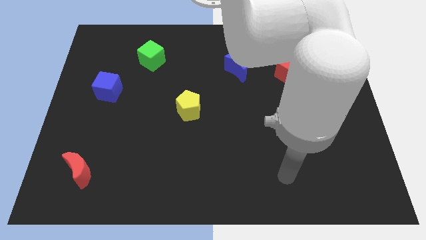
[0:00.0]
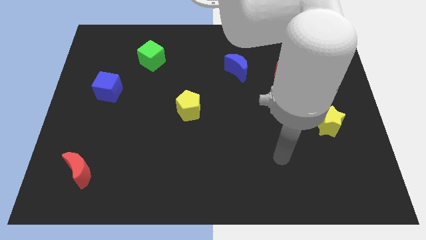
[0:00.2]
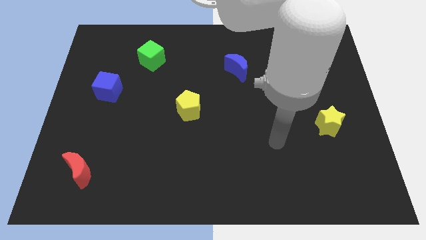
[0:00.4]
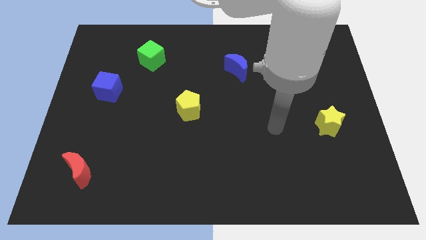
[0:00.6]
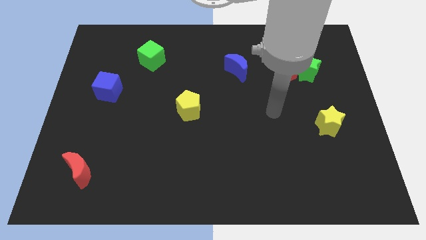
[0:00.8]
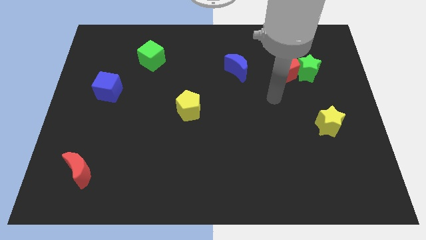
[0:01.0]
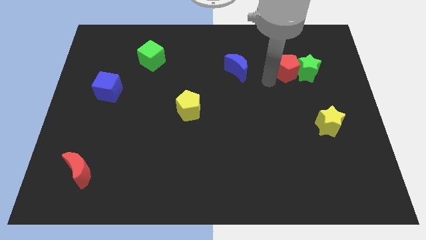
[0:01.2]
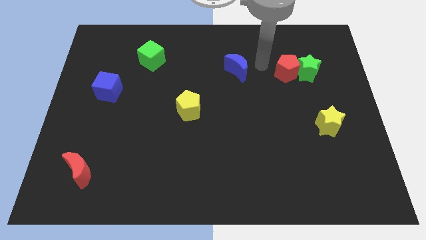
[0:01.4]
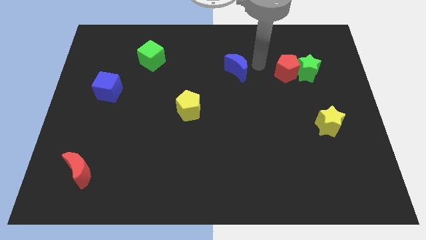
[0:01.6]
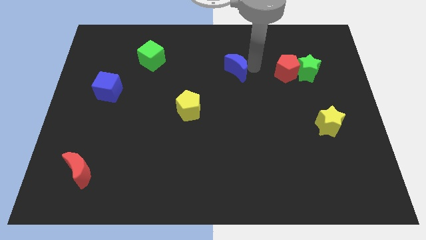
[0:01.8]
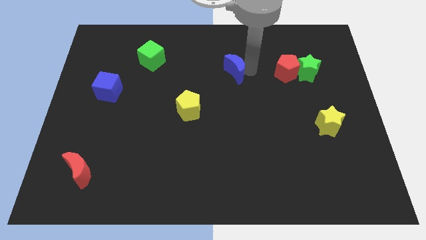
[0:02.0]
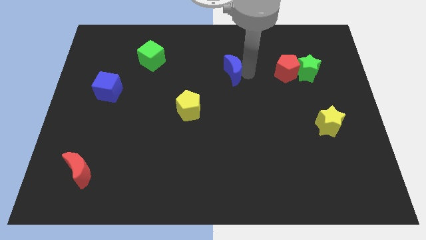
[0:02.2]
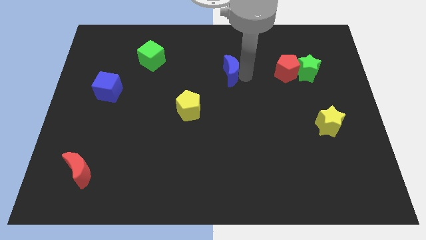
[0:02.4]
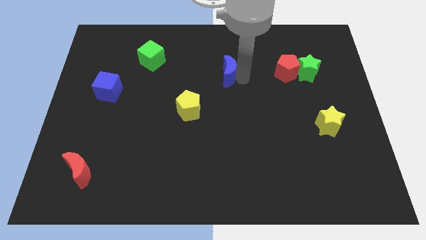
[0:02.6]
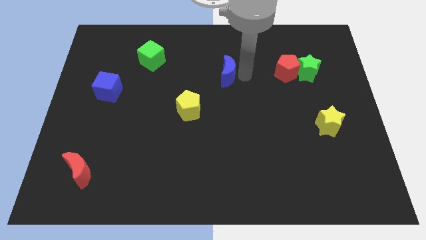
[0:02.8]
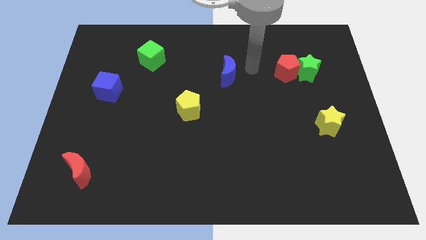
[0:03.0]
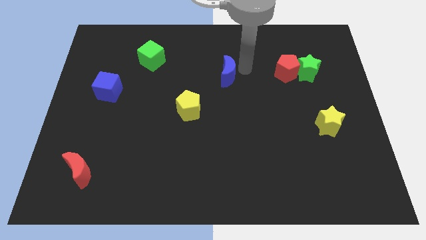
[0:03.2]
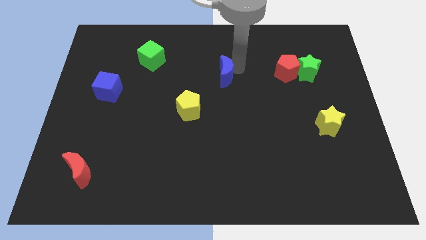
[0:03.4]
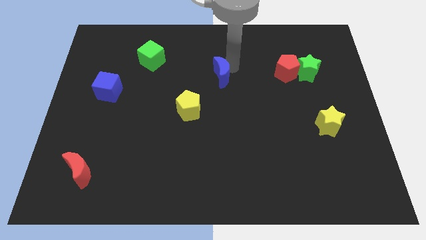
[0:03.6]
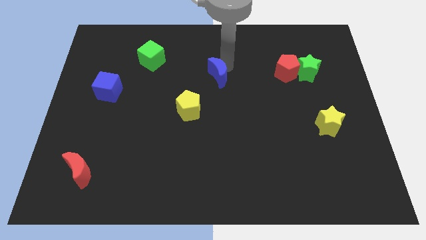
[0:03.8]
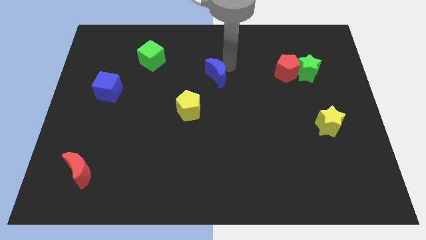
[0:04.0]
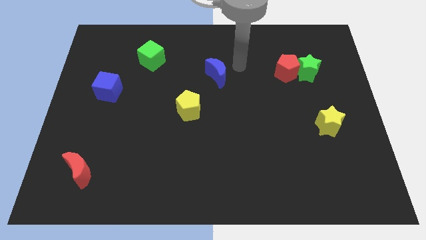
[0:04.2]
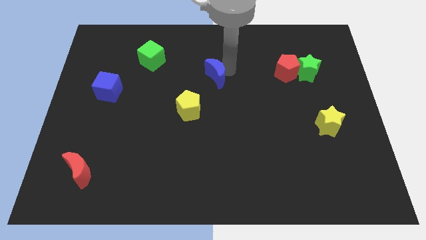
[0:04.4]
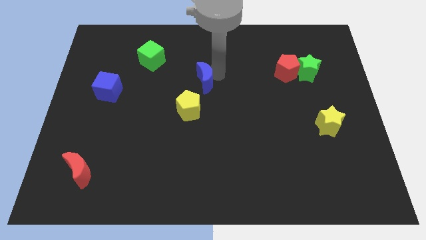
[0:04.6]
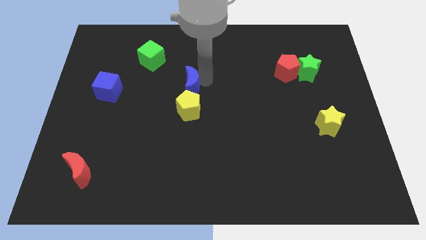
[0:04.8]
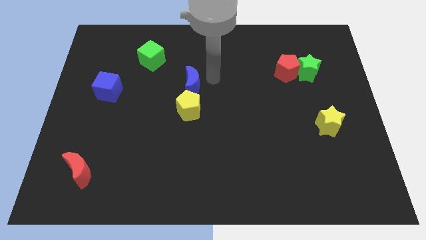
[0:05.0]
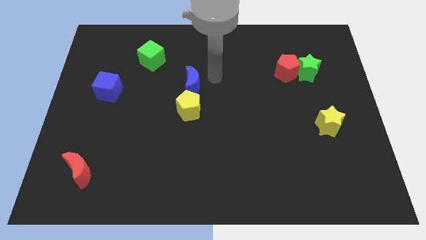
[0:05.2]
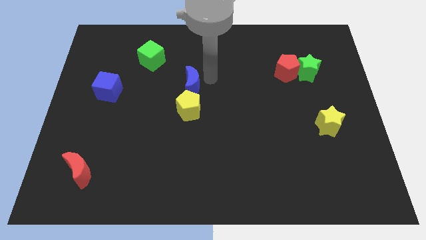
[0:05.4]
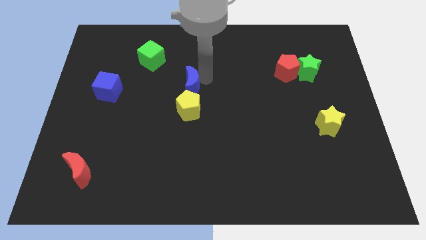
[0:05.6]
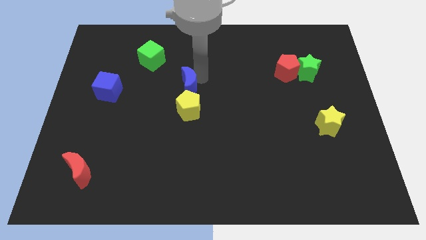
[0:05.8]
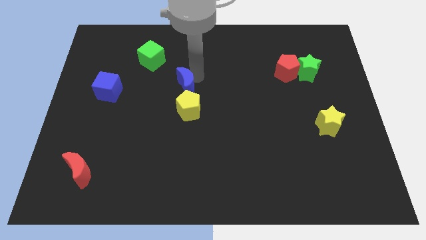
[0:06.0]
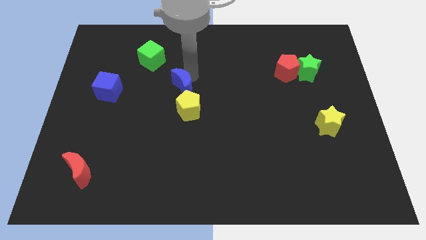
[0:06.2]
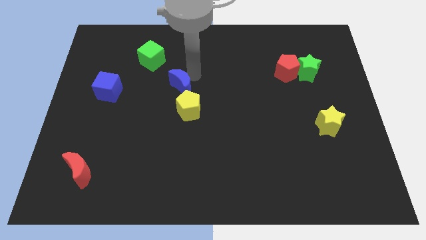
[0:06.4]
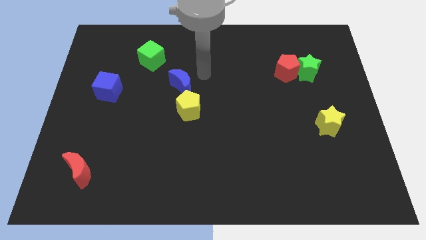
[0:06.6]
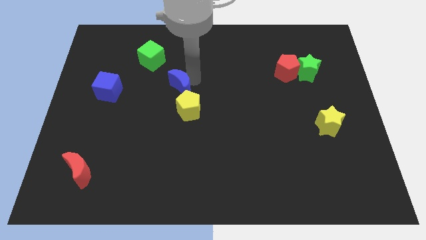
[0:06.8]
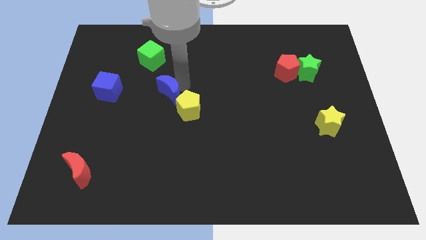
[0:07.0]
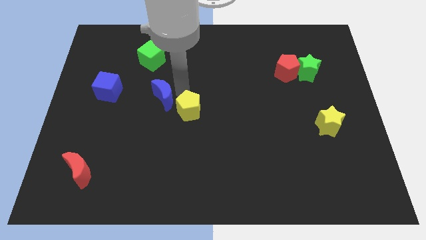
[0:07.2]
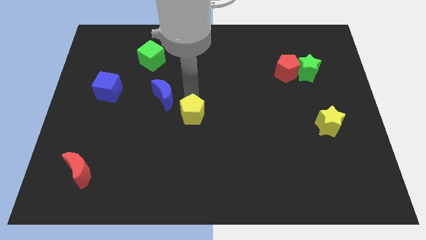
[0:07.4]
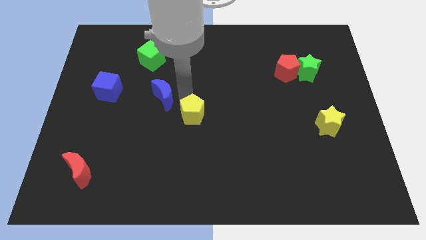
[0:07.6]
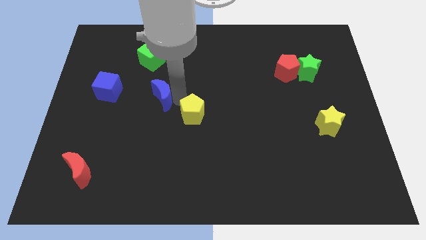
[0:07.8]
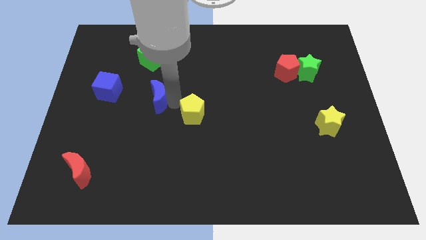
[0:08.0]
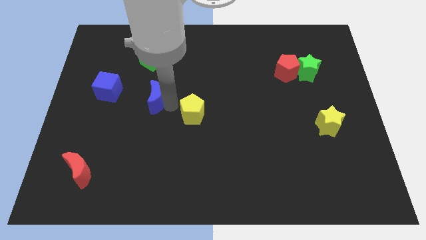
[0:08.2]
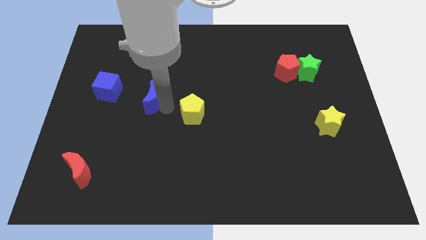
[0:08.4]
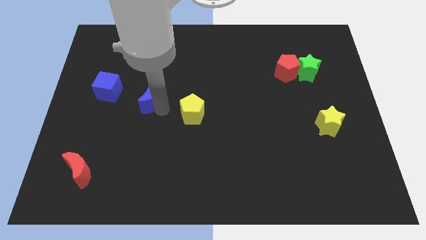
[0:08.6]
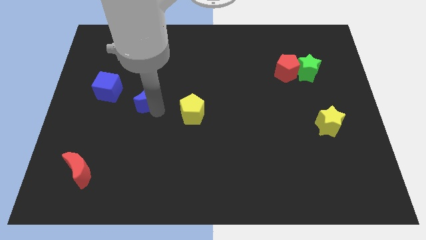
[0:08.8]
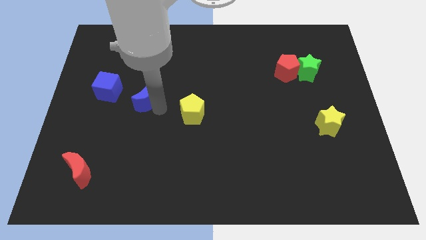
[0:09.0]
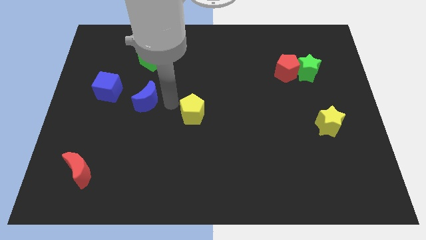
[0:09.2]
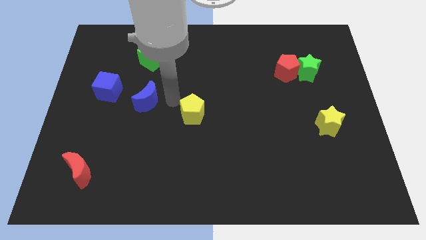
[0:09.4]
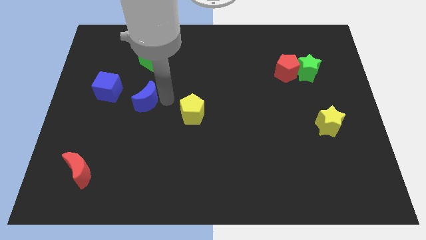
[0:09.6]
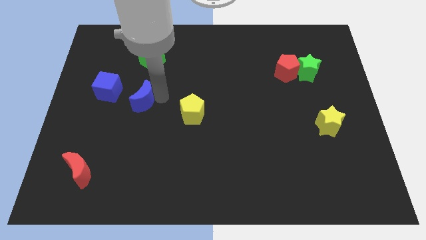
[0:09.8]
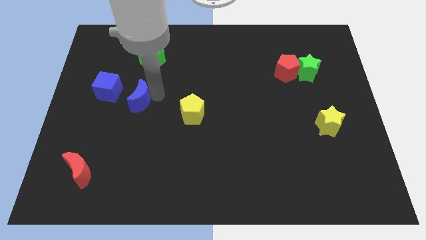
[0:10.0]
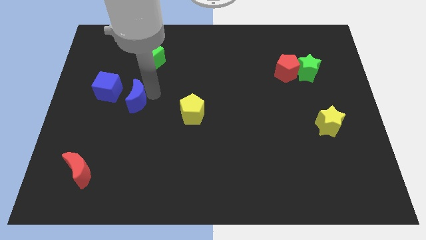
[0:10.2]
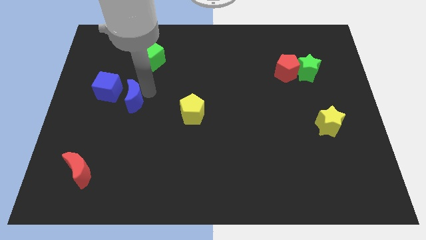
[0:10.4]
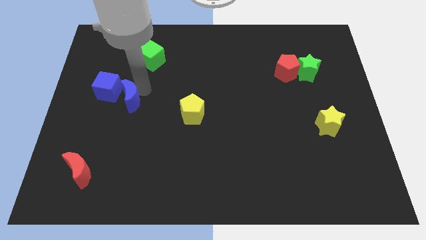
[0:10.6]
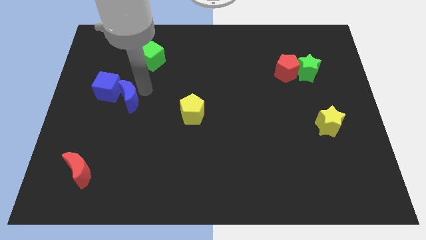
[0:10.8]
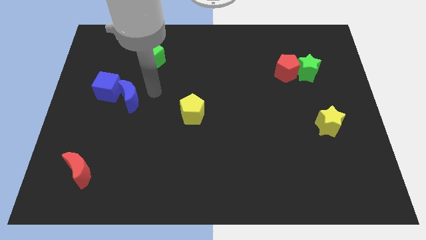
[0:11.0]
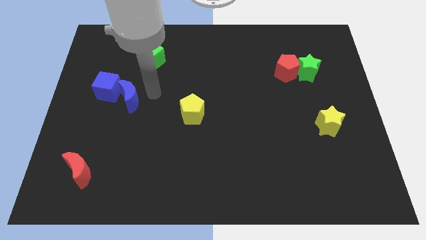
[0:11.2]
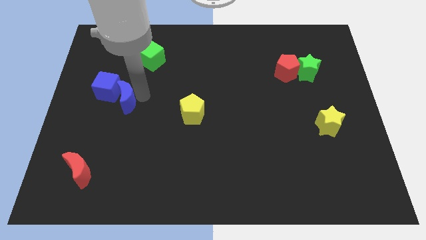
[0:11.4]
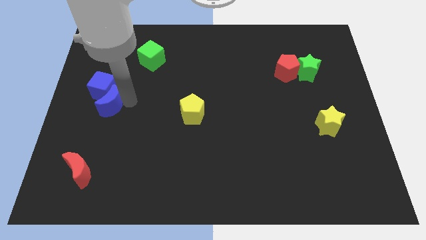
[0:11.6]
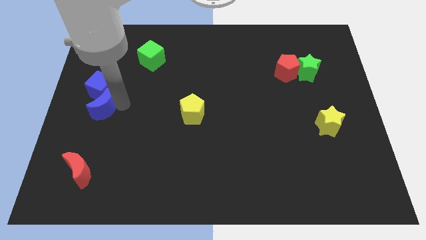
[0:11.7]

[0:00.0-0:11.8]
move the blue moon to the center left

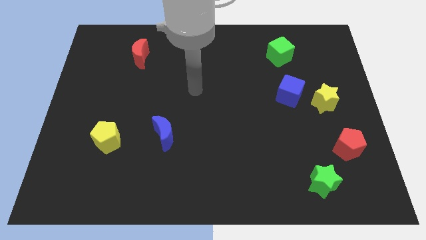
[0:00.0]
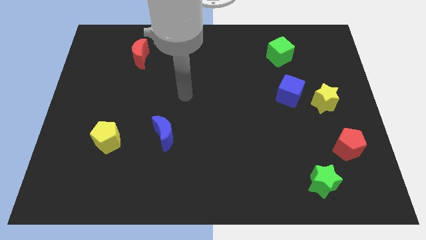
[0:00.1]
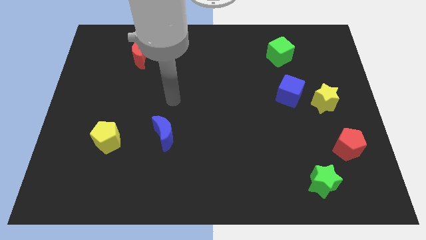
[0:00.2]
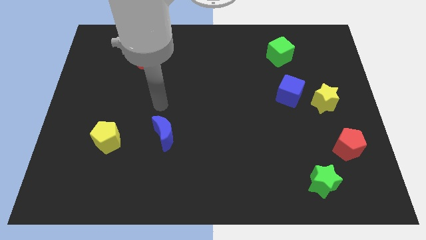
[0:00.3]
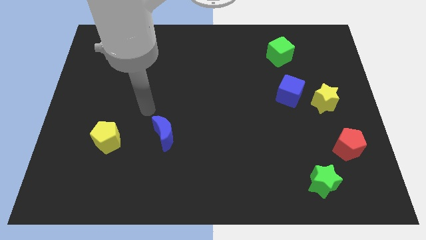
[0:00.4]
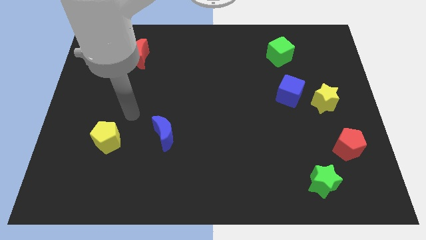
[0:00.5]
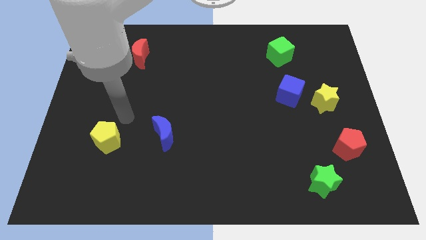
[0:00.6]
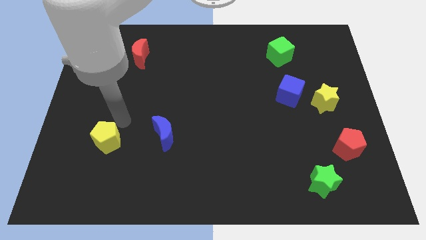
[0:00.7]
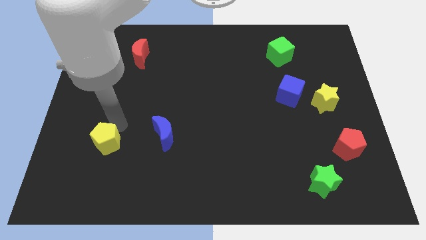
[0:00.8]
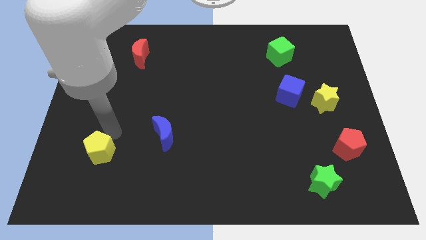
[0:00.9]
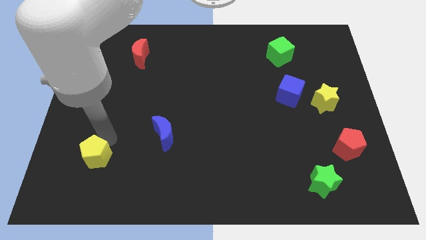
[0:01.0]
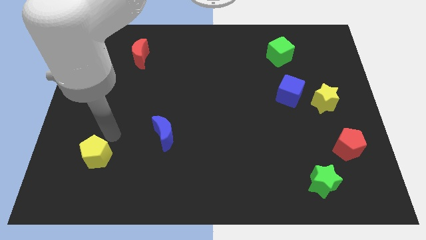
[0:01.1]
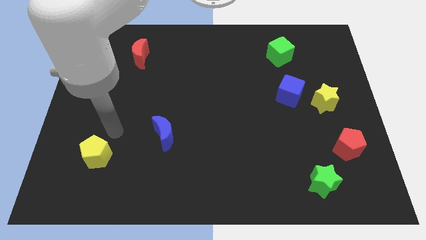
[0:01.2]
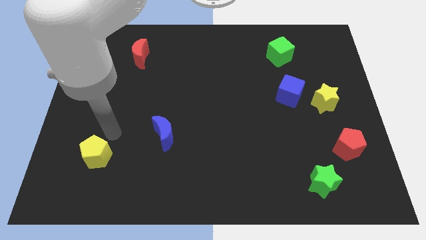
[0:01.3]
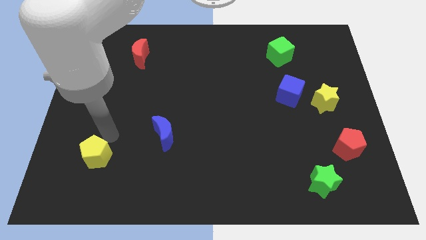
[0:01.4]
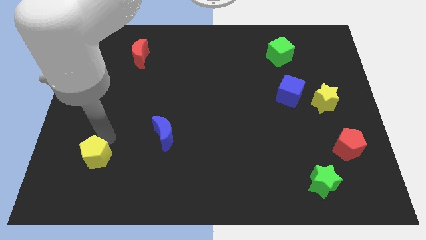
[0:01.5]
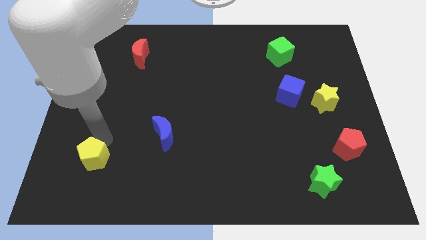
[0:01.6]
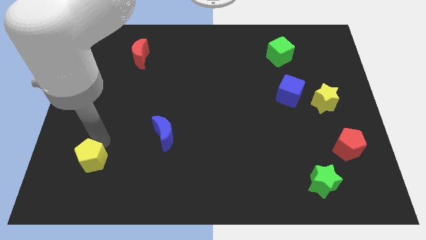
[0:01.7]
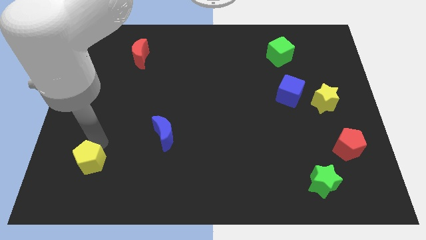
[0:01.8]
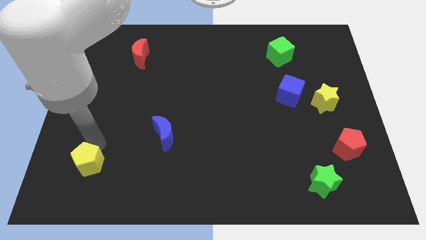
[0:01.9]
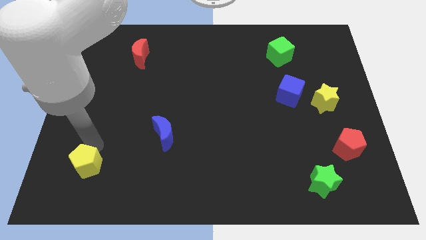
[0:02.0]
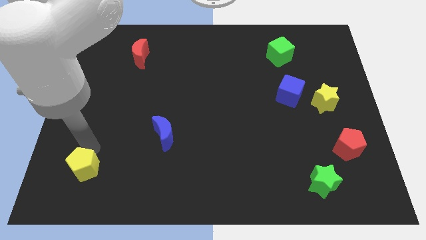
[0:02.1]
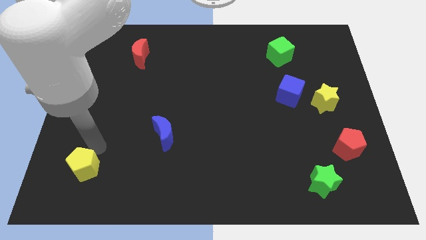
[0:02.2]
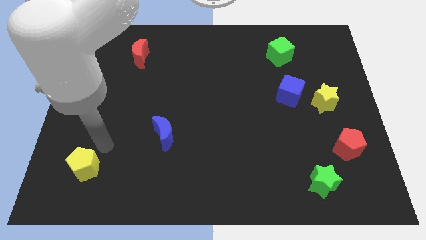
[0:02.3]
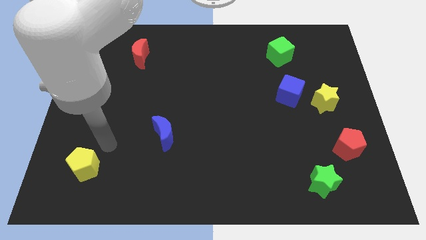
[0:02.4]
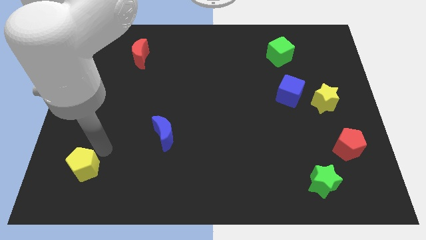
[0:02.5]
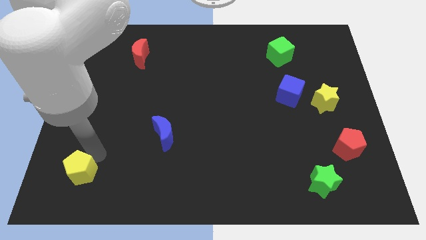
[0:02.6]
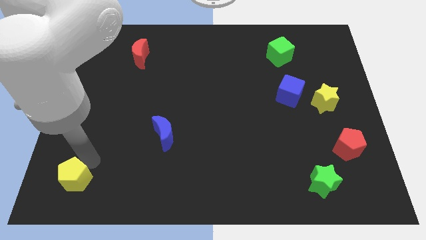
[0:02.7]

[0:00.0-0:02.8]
slide the yellow pentagon to the bottom left of the board
